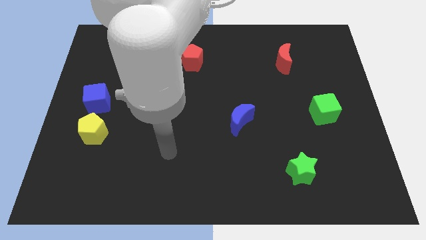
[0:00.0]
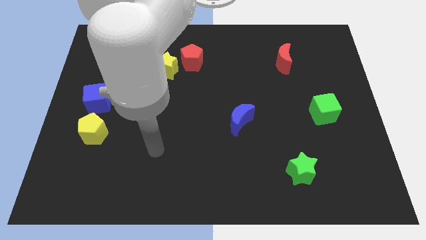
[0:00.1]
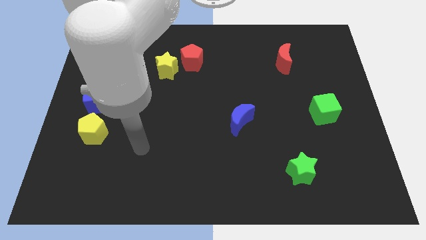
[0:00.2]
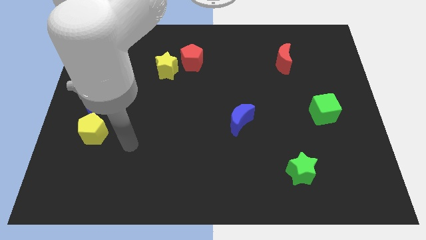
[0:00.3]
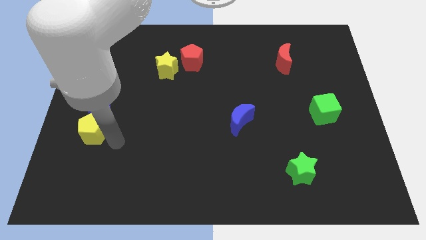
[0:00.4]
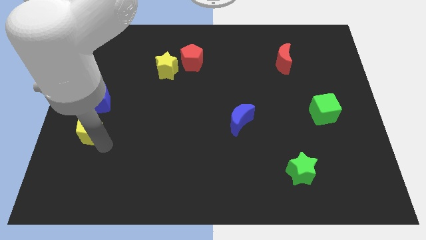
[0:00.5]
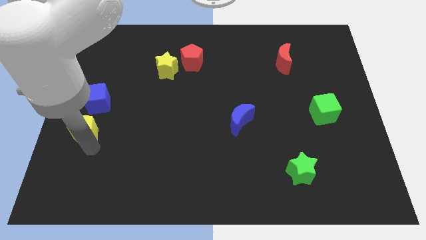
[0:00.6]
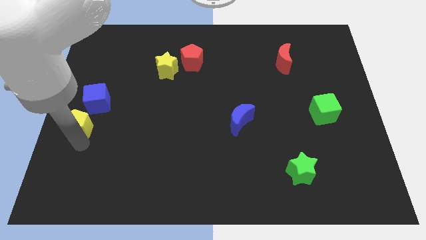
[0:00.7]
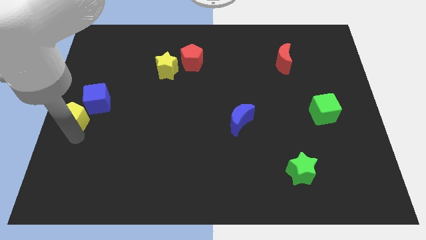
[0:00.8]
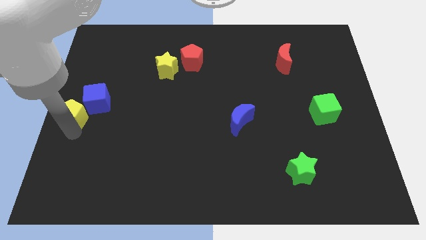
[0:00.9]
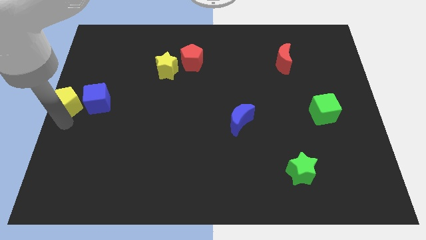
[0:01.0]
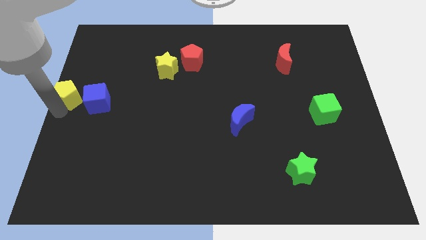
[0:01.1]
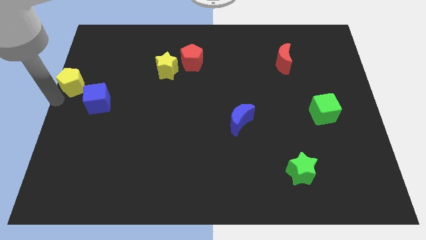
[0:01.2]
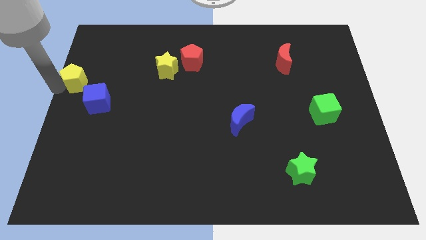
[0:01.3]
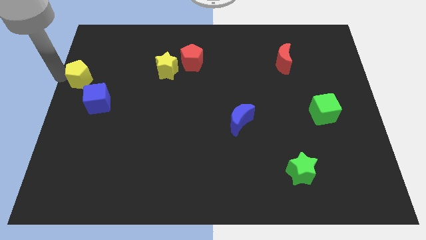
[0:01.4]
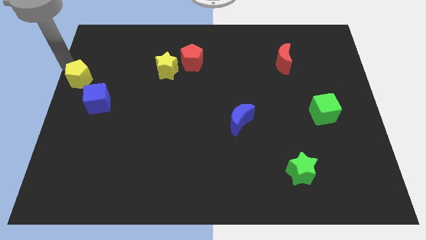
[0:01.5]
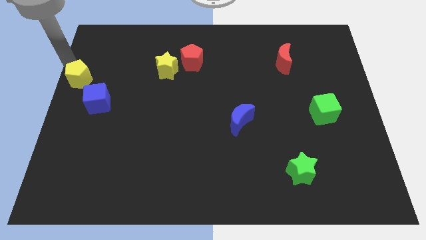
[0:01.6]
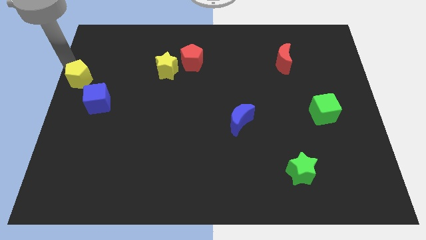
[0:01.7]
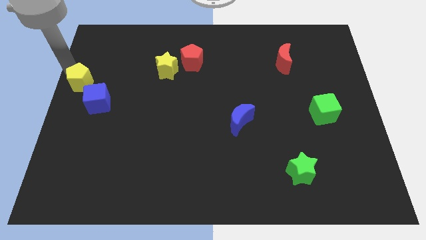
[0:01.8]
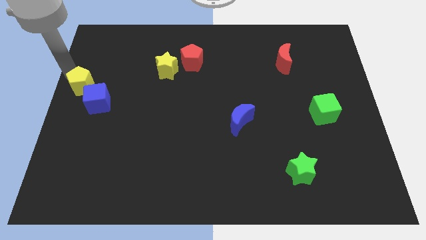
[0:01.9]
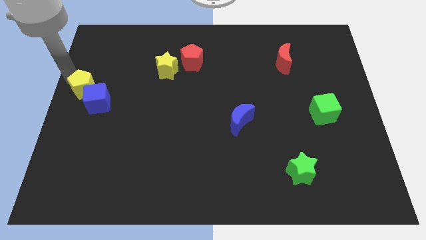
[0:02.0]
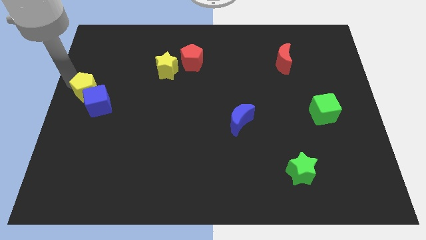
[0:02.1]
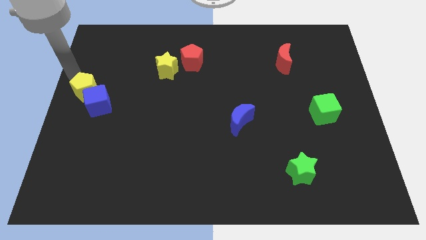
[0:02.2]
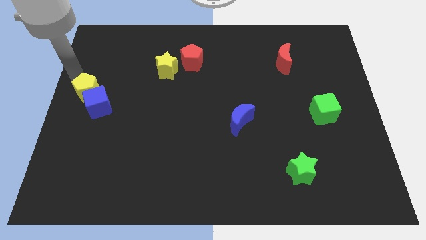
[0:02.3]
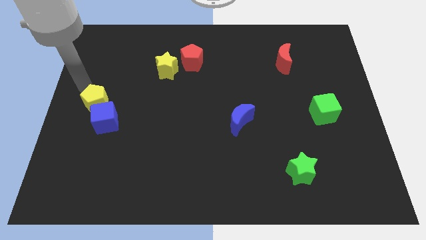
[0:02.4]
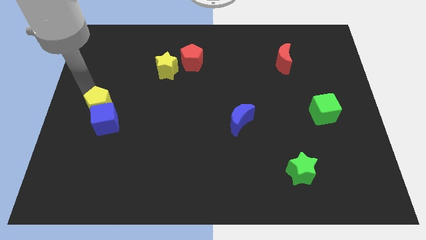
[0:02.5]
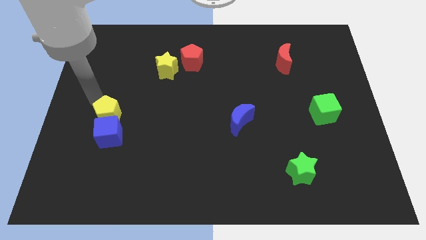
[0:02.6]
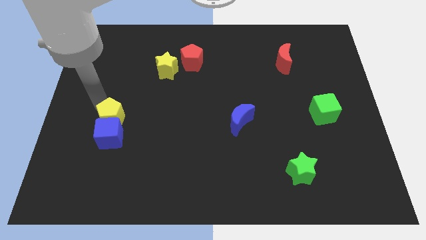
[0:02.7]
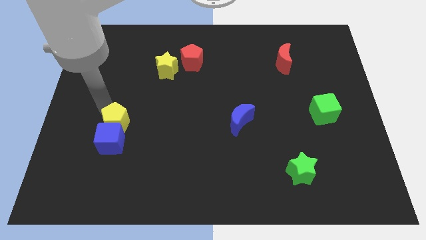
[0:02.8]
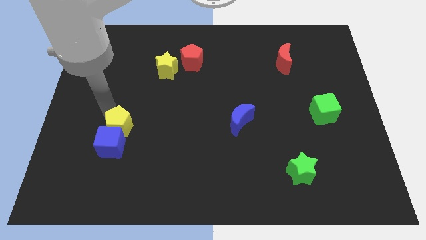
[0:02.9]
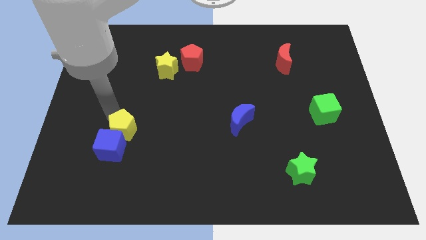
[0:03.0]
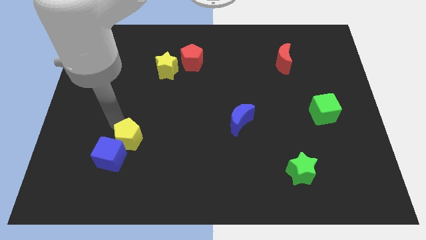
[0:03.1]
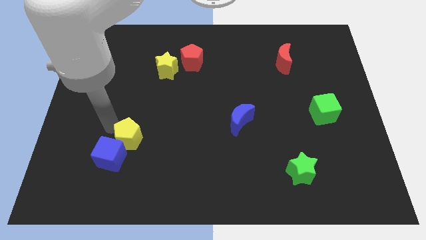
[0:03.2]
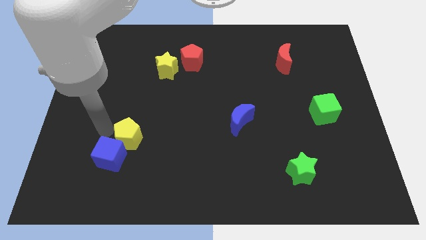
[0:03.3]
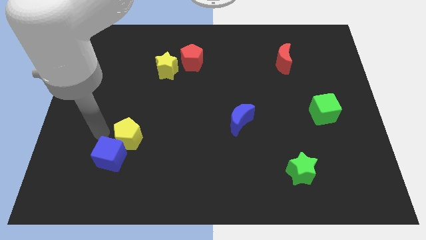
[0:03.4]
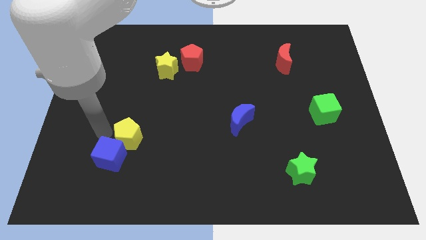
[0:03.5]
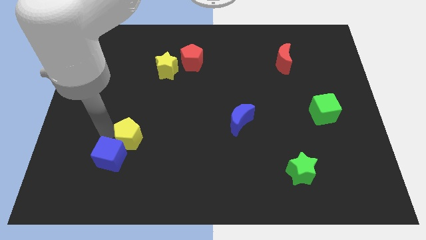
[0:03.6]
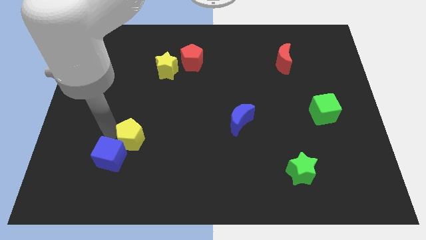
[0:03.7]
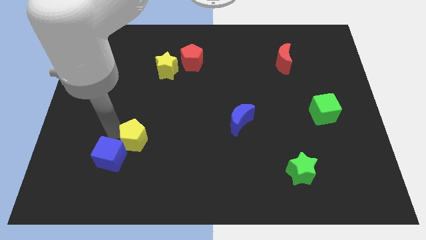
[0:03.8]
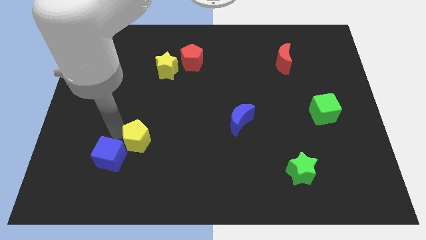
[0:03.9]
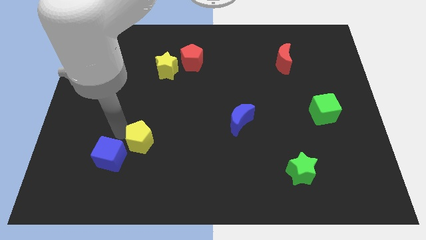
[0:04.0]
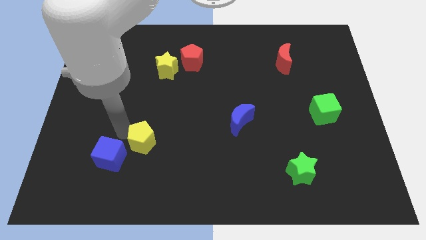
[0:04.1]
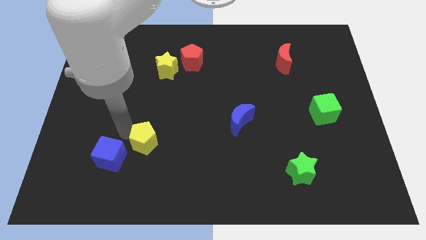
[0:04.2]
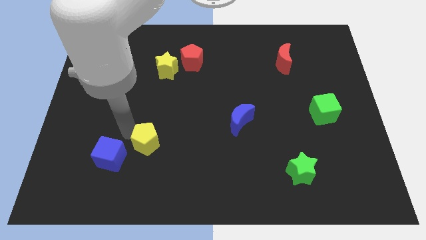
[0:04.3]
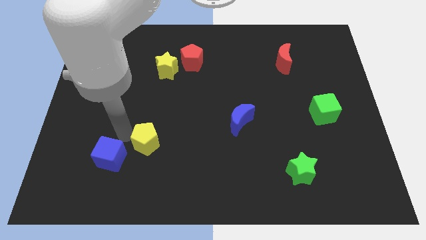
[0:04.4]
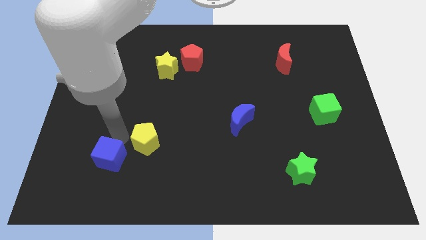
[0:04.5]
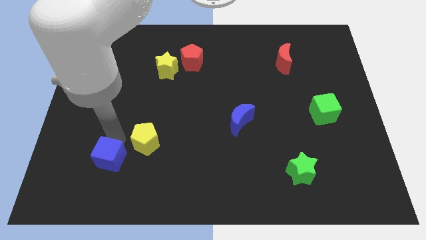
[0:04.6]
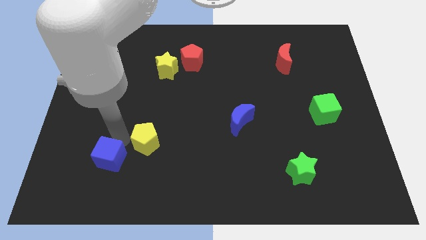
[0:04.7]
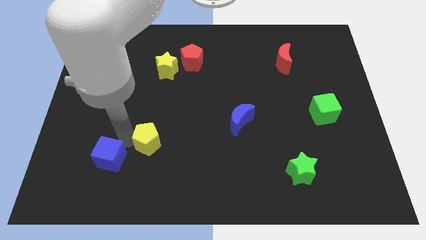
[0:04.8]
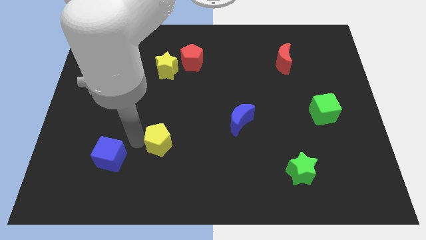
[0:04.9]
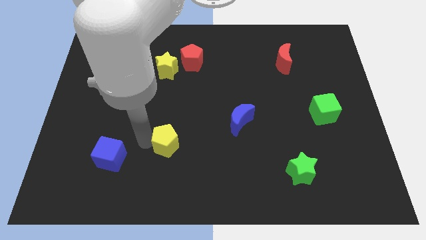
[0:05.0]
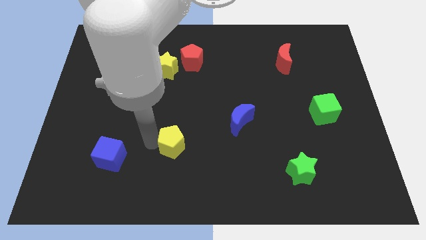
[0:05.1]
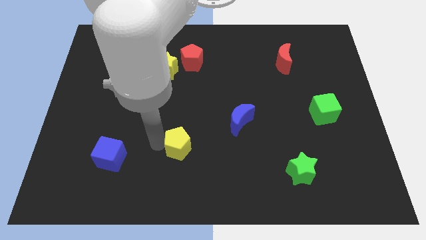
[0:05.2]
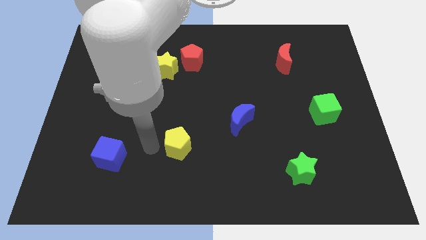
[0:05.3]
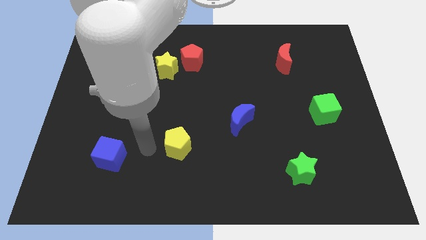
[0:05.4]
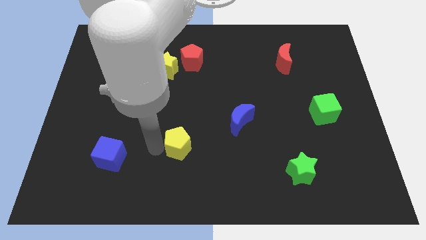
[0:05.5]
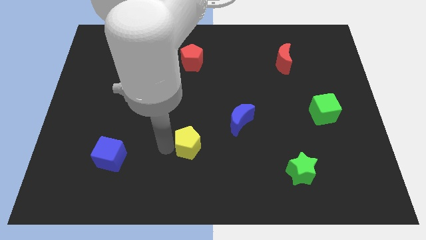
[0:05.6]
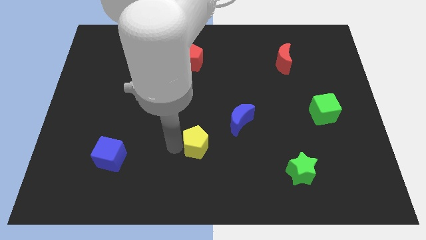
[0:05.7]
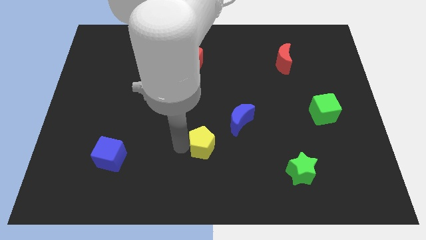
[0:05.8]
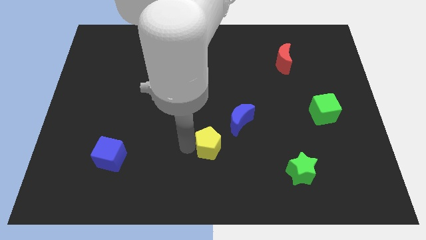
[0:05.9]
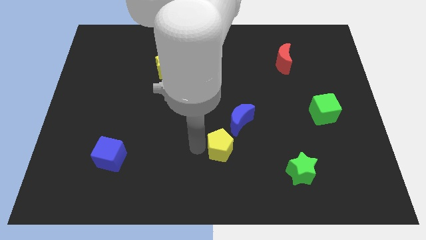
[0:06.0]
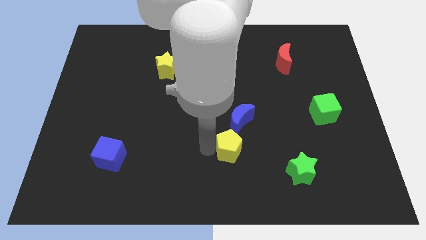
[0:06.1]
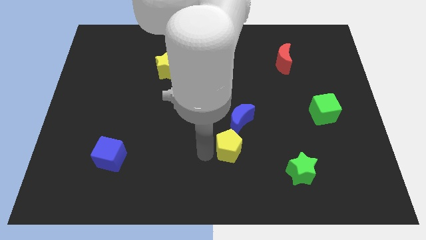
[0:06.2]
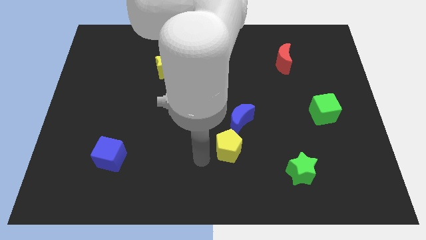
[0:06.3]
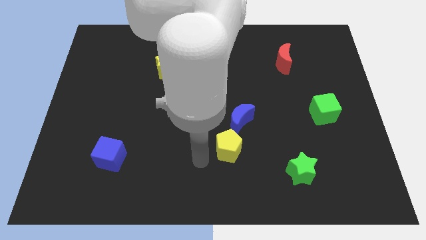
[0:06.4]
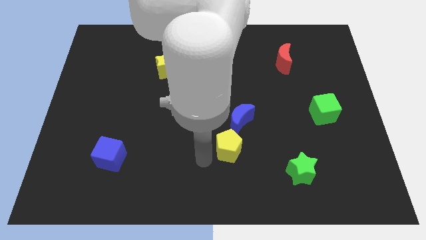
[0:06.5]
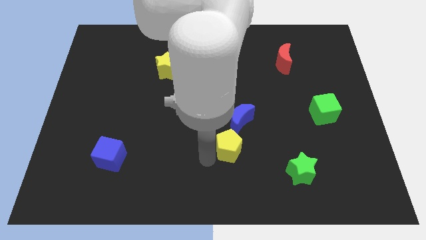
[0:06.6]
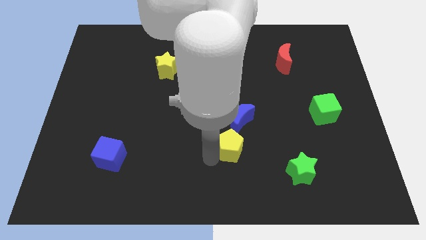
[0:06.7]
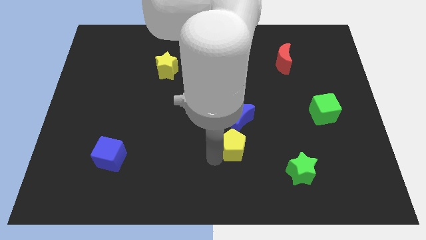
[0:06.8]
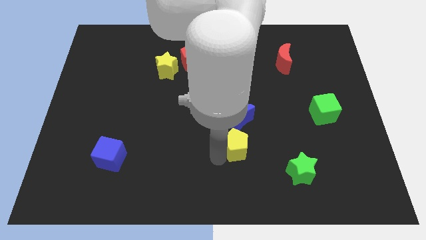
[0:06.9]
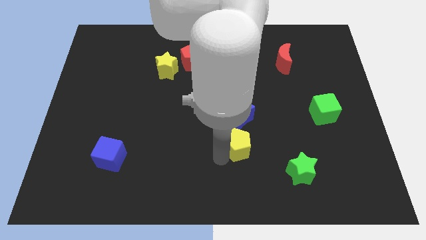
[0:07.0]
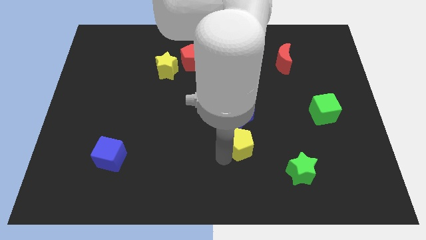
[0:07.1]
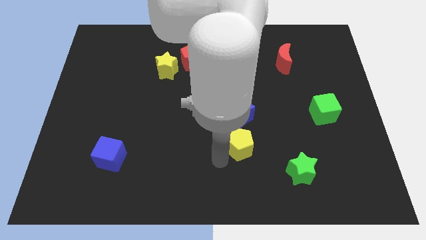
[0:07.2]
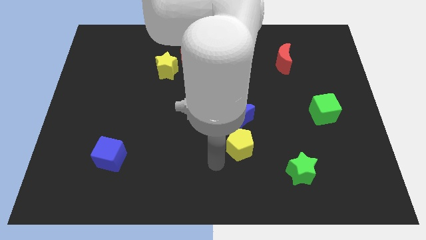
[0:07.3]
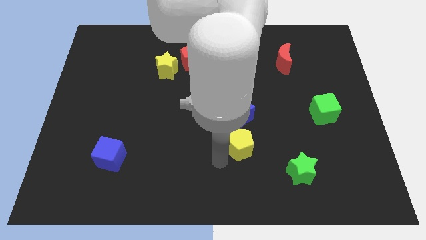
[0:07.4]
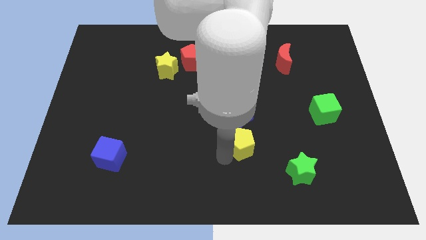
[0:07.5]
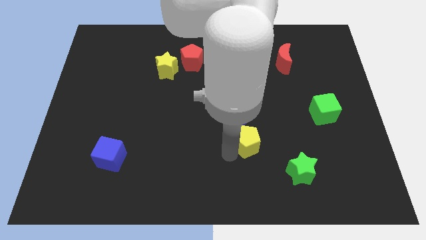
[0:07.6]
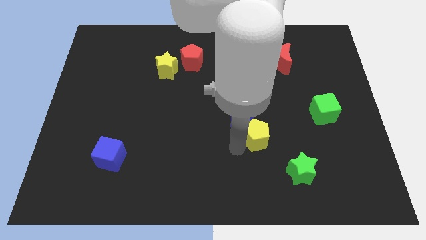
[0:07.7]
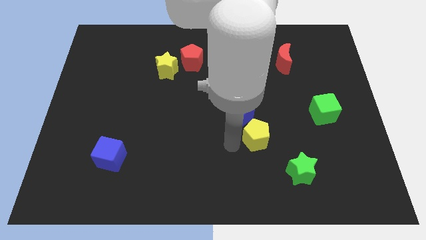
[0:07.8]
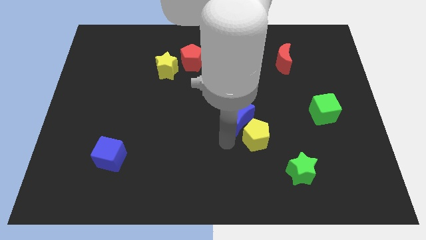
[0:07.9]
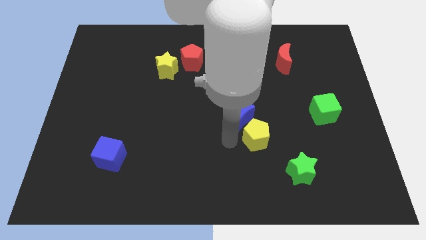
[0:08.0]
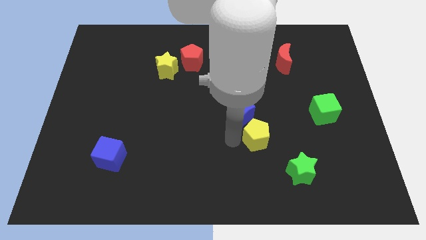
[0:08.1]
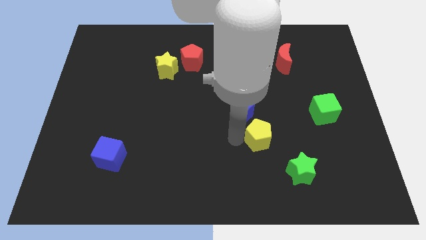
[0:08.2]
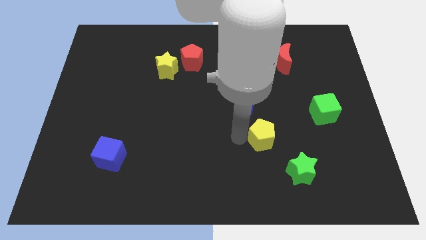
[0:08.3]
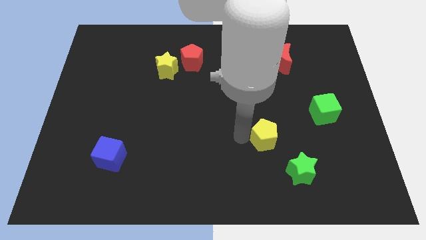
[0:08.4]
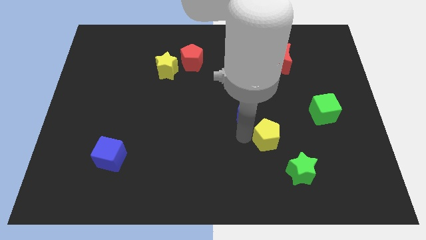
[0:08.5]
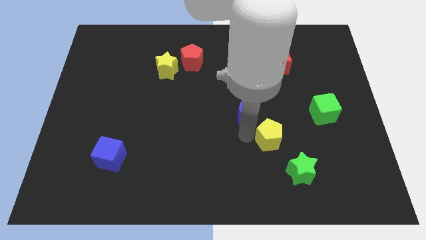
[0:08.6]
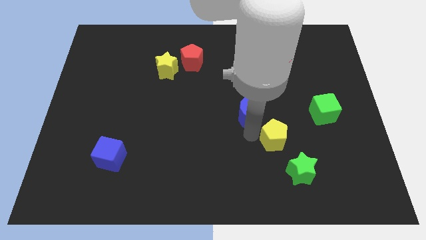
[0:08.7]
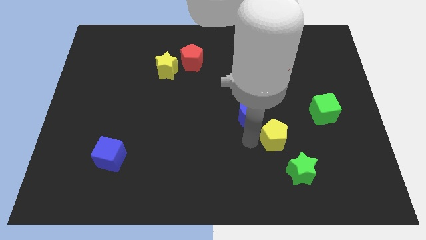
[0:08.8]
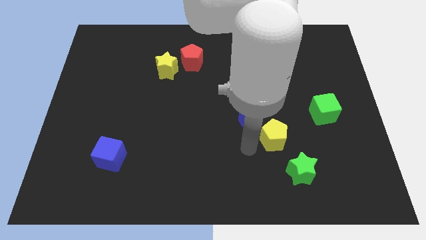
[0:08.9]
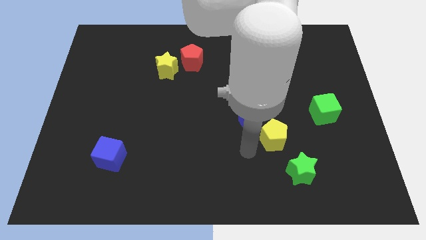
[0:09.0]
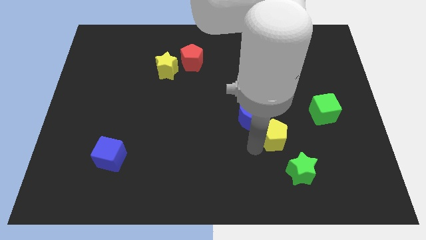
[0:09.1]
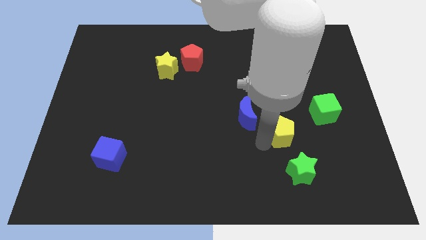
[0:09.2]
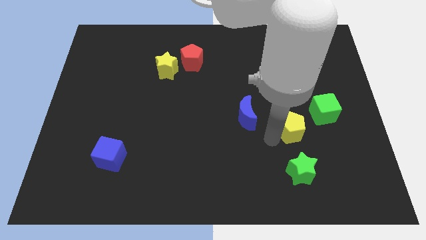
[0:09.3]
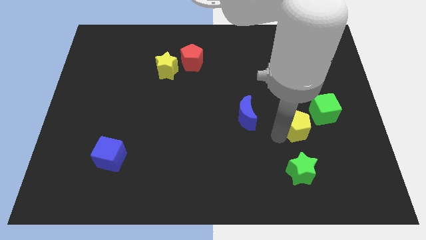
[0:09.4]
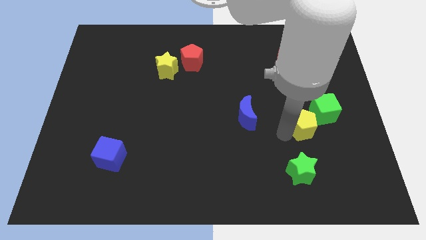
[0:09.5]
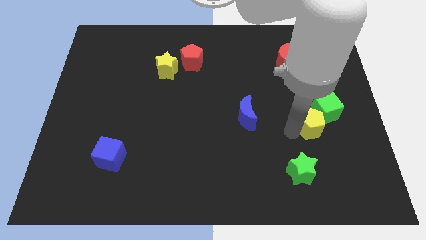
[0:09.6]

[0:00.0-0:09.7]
push the yellow pentagon towards the green cube
